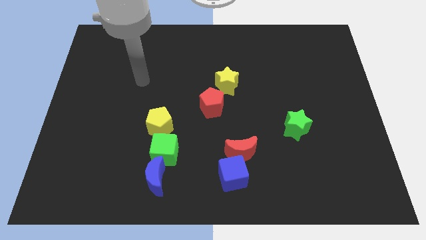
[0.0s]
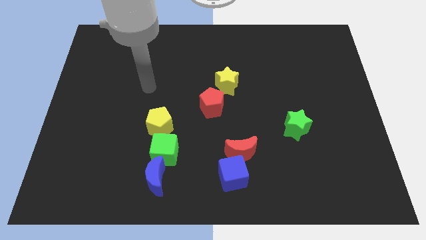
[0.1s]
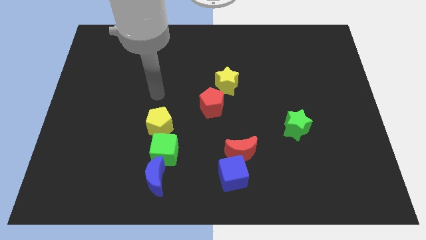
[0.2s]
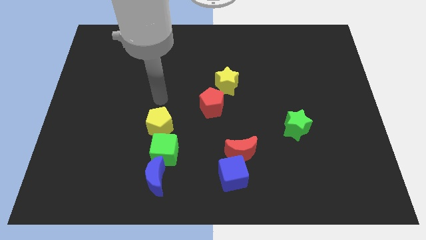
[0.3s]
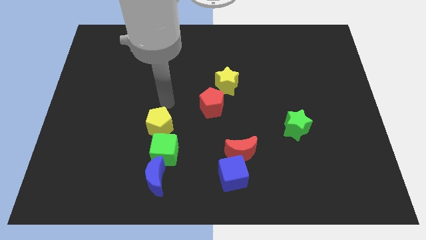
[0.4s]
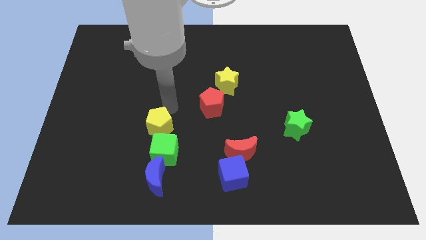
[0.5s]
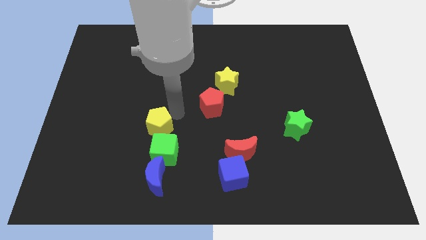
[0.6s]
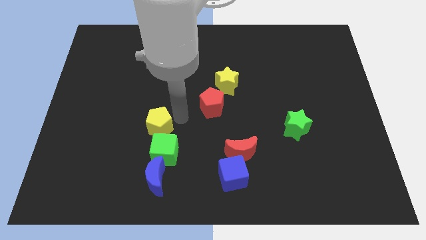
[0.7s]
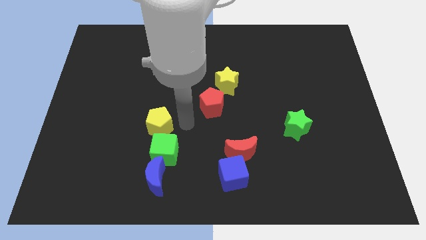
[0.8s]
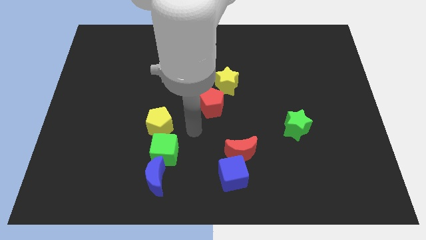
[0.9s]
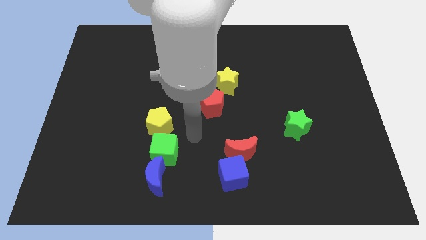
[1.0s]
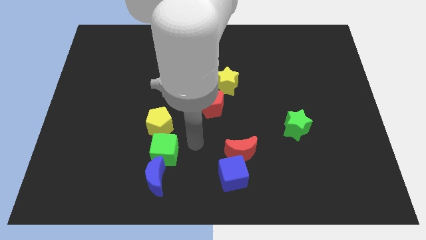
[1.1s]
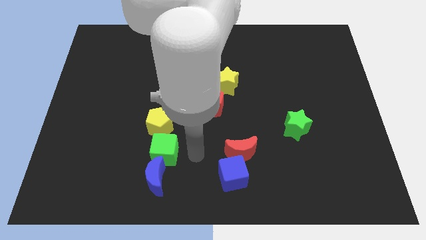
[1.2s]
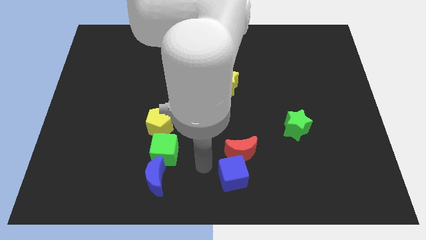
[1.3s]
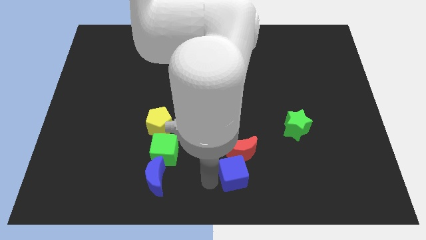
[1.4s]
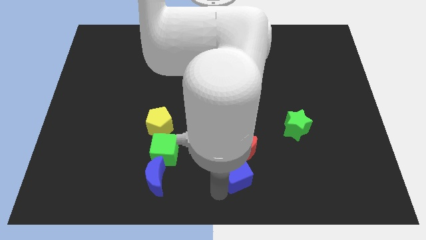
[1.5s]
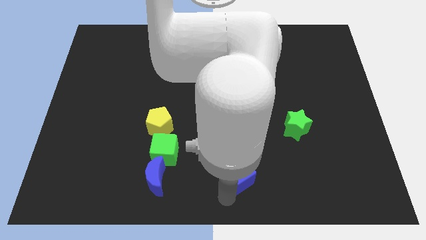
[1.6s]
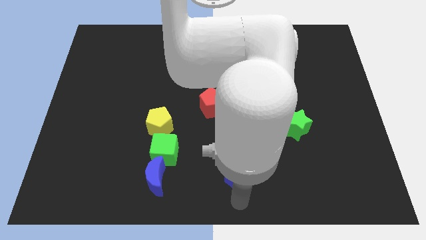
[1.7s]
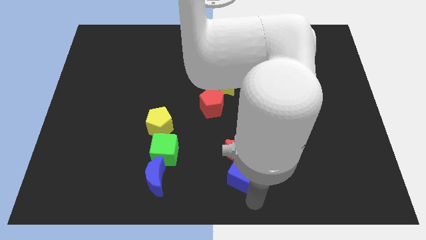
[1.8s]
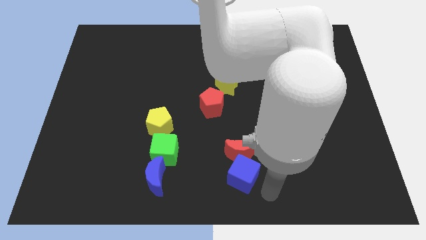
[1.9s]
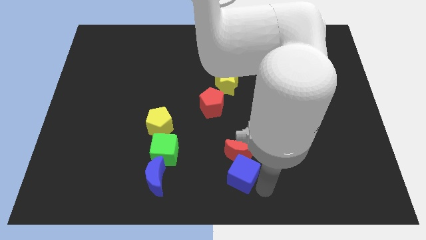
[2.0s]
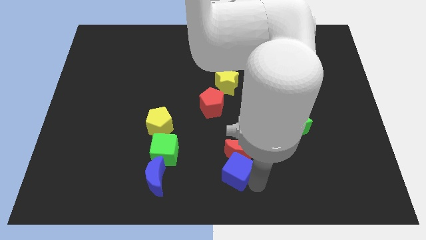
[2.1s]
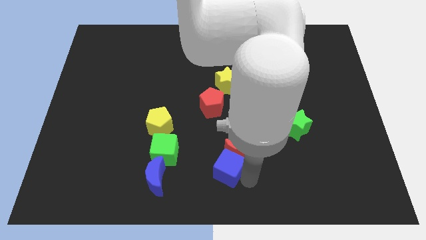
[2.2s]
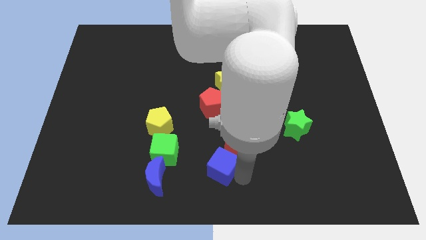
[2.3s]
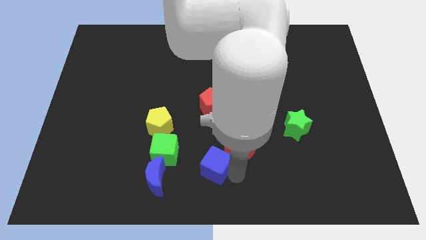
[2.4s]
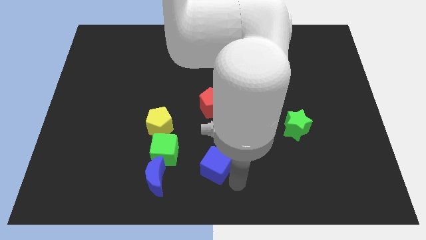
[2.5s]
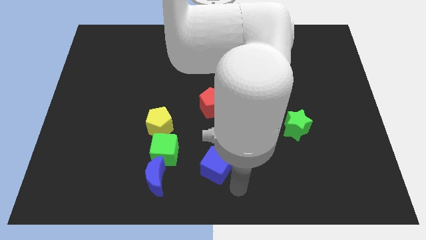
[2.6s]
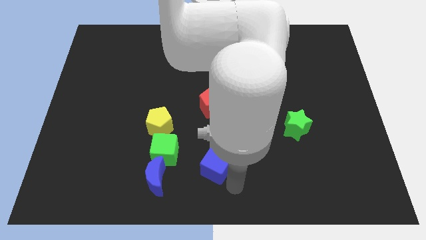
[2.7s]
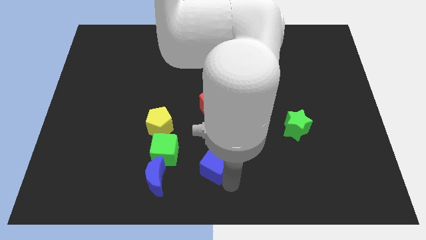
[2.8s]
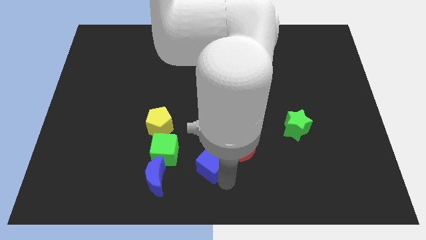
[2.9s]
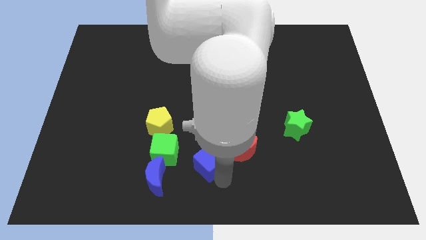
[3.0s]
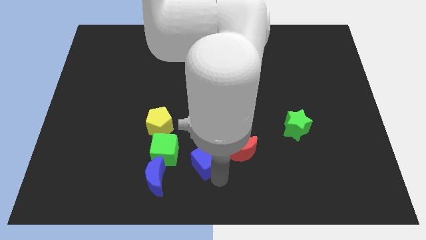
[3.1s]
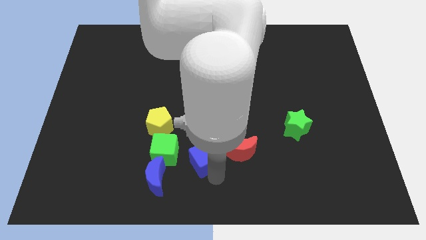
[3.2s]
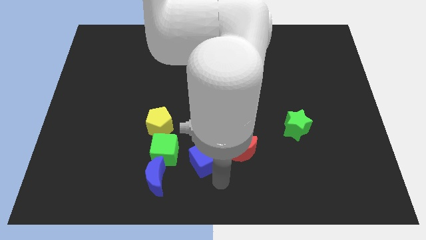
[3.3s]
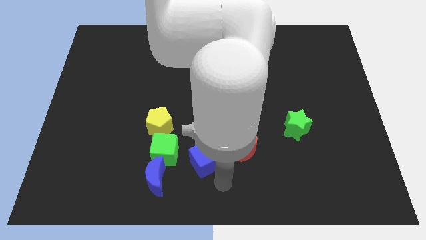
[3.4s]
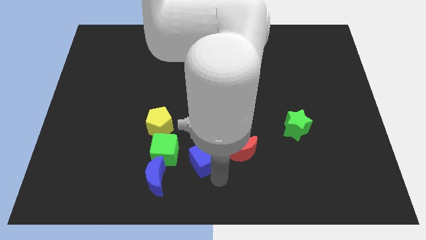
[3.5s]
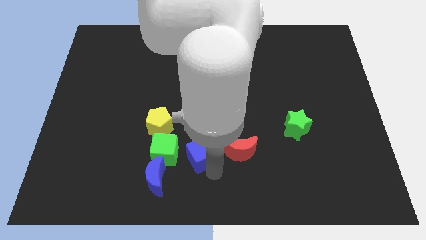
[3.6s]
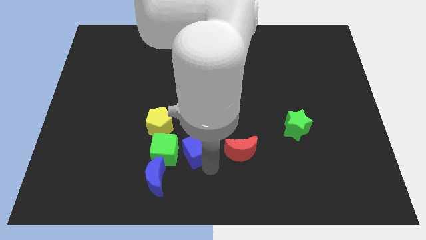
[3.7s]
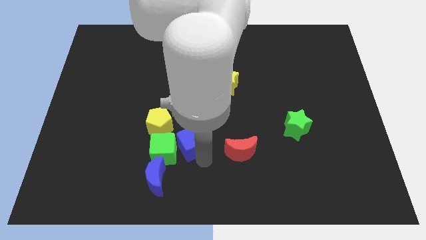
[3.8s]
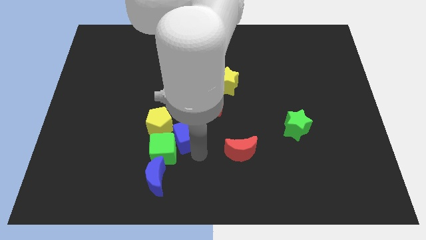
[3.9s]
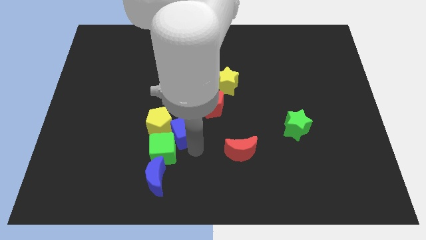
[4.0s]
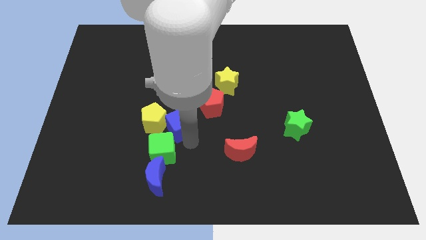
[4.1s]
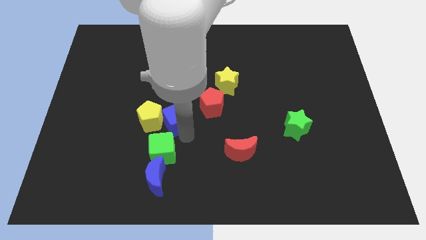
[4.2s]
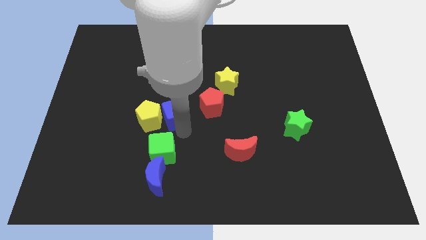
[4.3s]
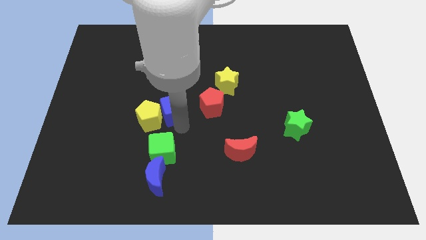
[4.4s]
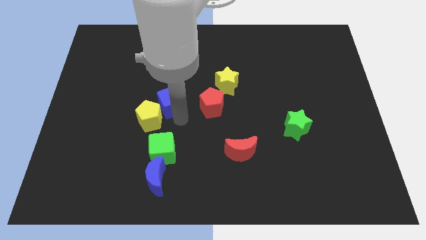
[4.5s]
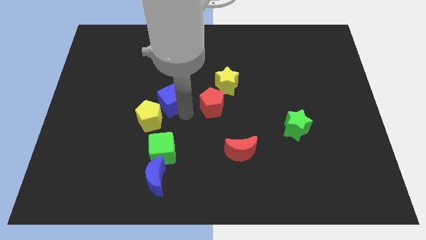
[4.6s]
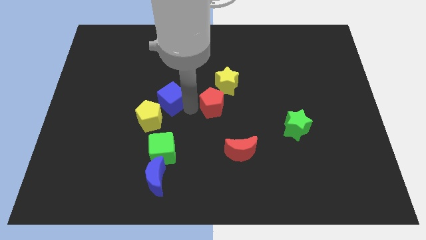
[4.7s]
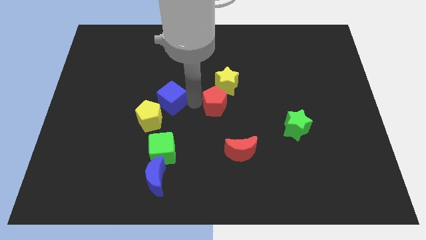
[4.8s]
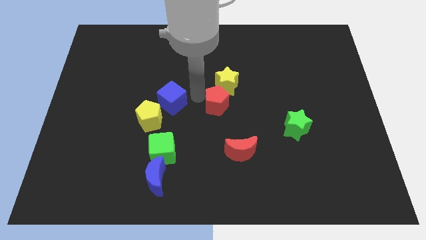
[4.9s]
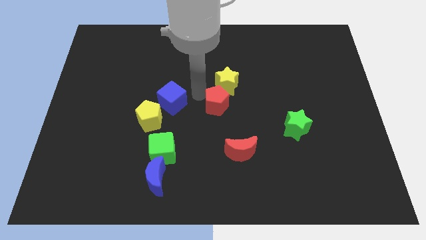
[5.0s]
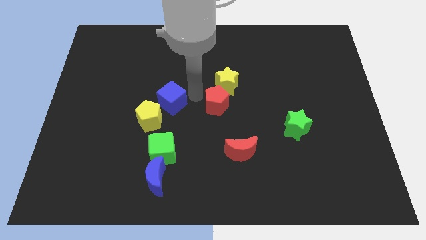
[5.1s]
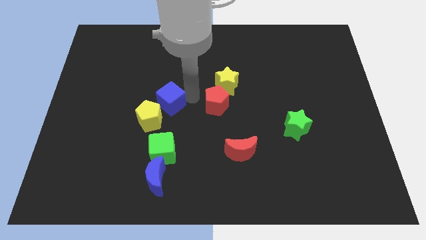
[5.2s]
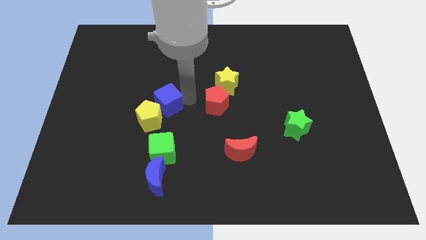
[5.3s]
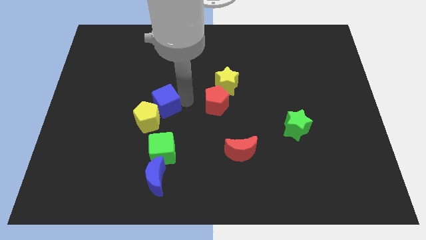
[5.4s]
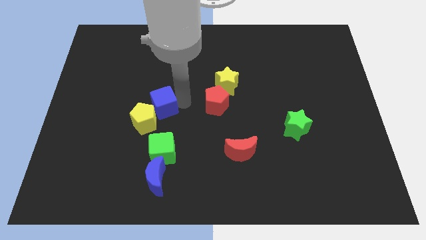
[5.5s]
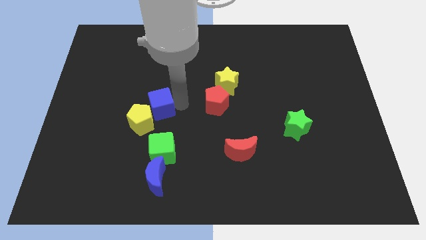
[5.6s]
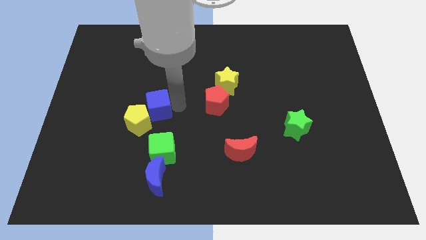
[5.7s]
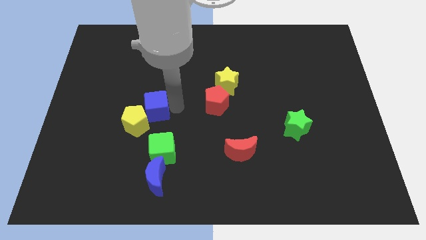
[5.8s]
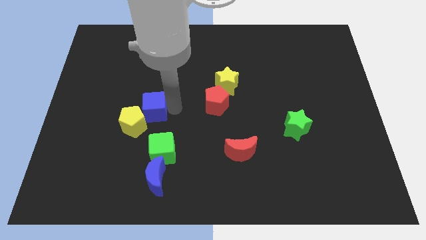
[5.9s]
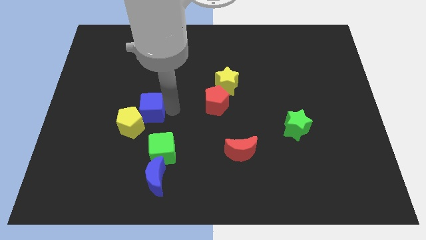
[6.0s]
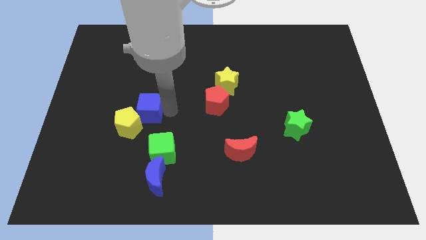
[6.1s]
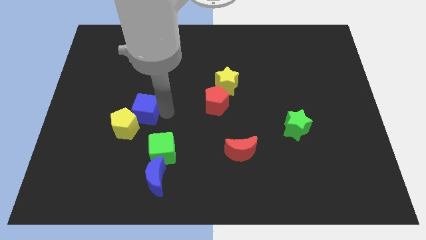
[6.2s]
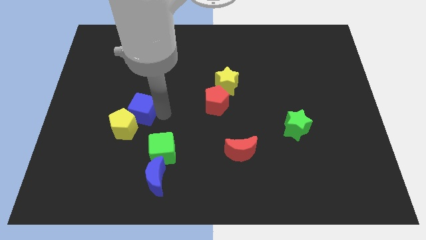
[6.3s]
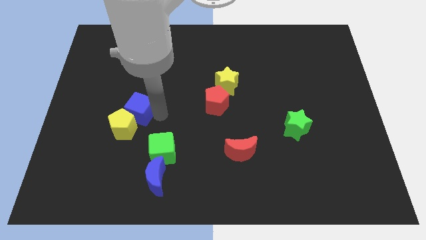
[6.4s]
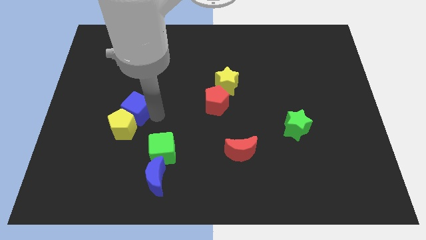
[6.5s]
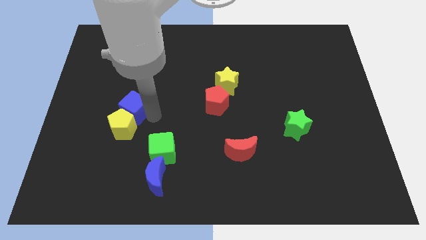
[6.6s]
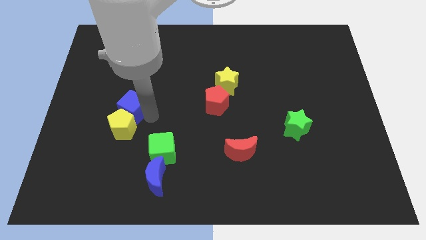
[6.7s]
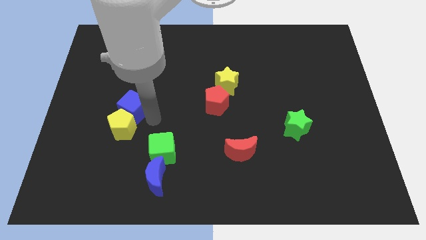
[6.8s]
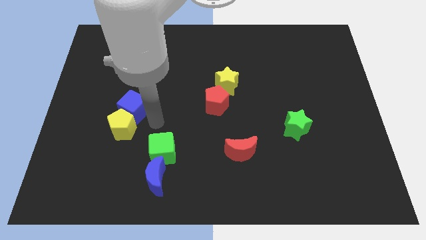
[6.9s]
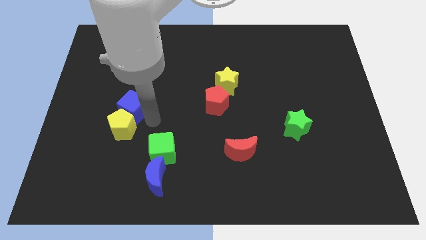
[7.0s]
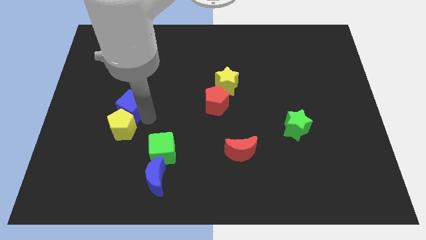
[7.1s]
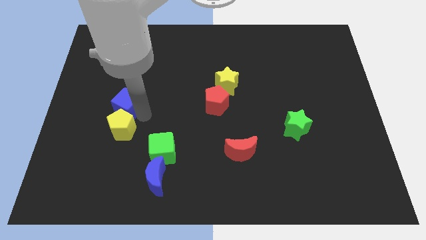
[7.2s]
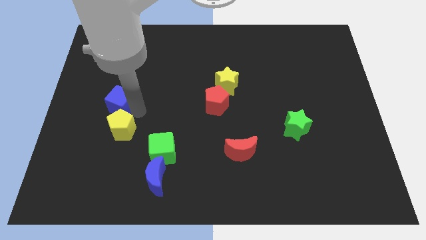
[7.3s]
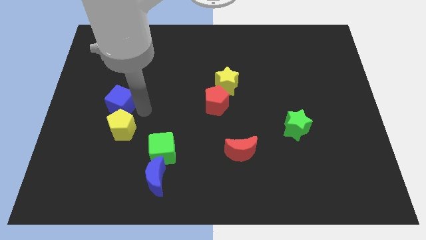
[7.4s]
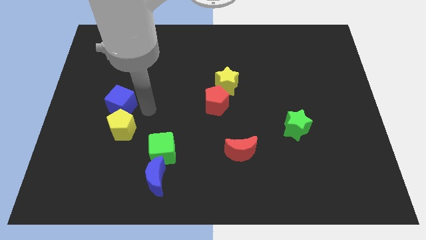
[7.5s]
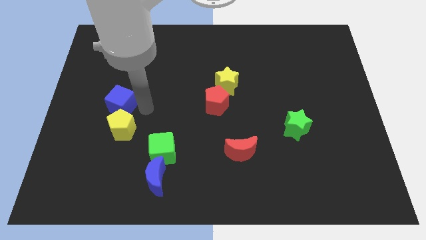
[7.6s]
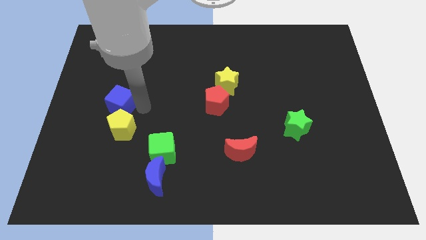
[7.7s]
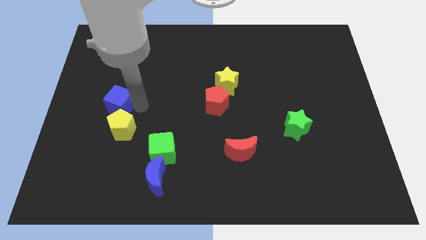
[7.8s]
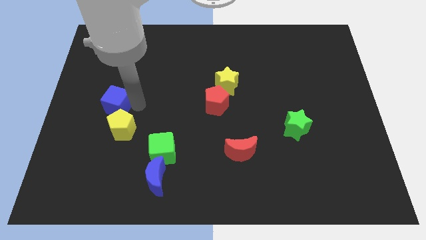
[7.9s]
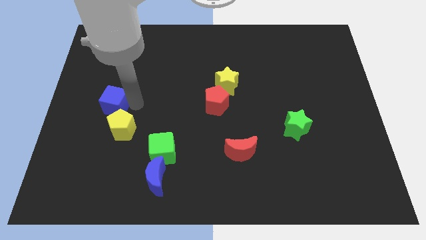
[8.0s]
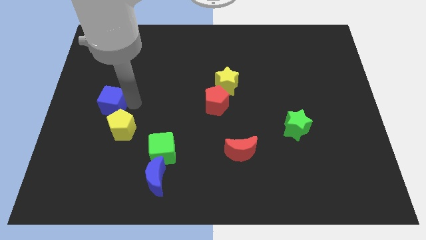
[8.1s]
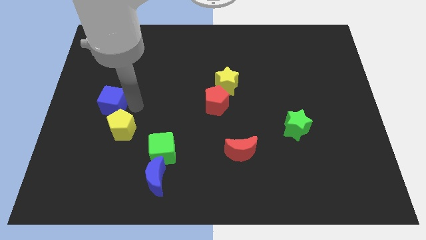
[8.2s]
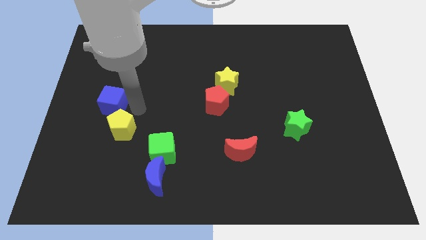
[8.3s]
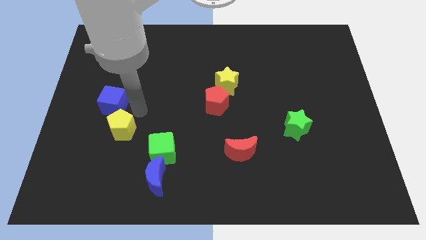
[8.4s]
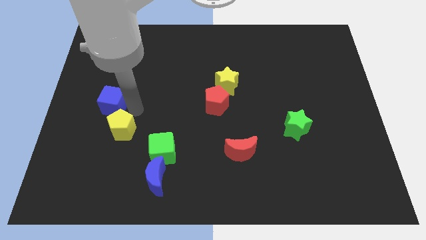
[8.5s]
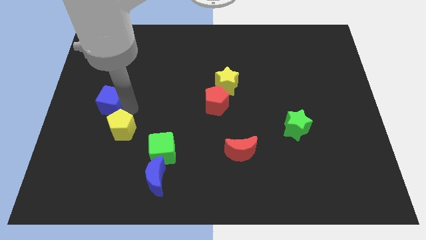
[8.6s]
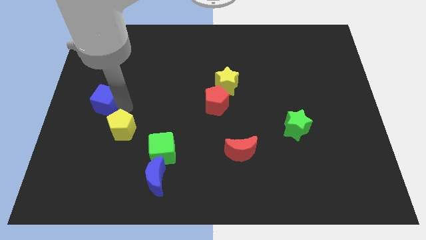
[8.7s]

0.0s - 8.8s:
put the blue cube to the left side of the board
